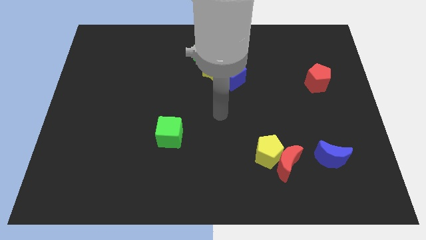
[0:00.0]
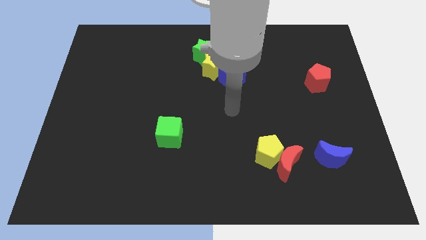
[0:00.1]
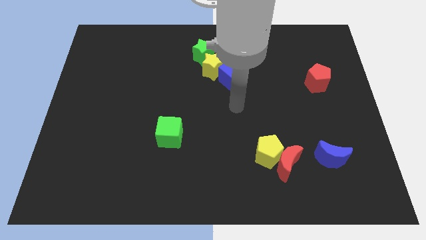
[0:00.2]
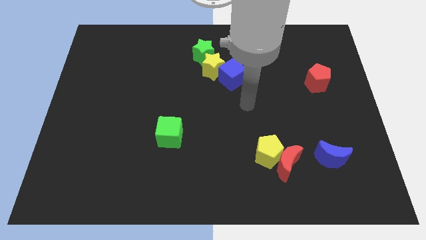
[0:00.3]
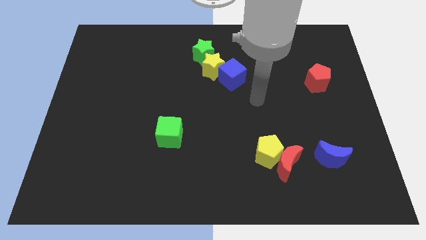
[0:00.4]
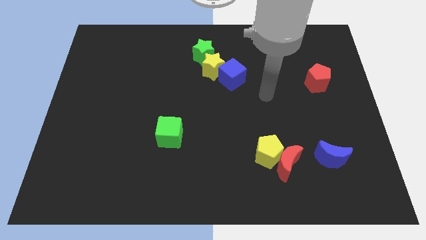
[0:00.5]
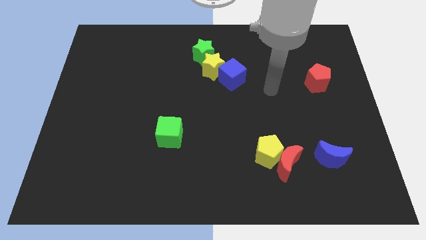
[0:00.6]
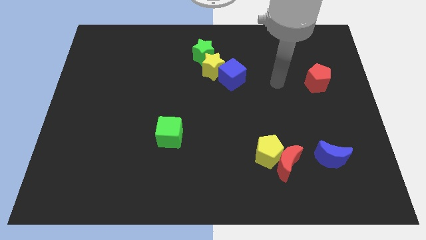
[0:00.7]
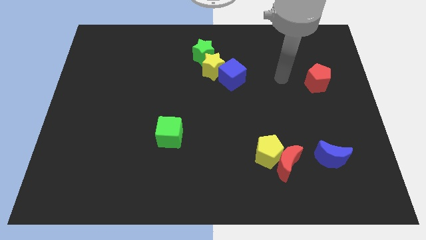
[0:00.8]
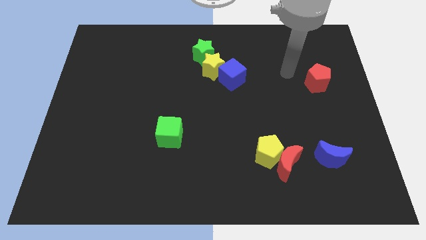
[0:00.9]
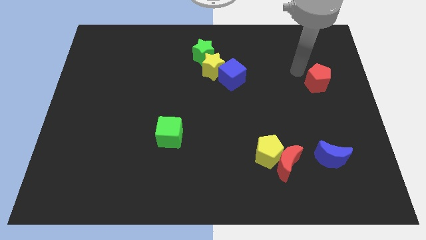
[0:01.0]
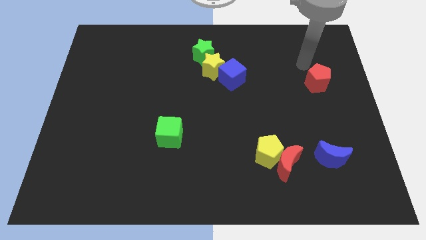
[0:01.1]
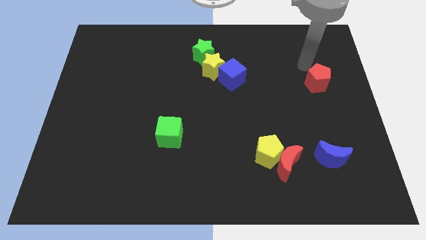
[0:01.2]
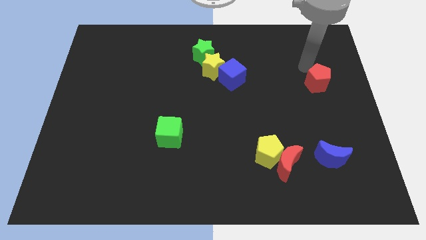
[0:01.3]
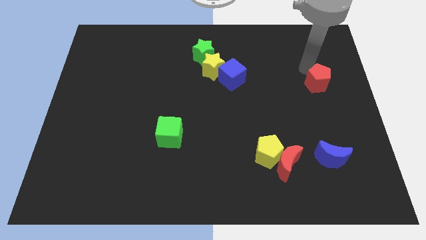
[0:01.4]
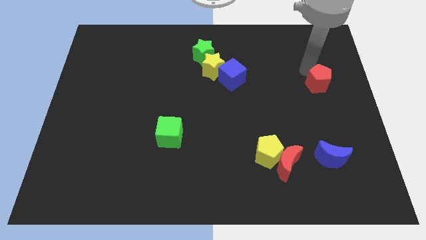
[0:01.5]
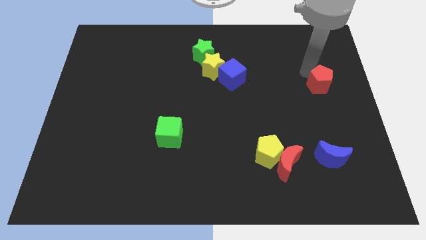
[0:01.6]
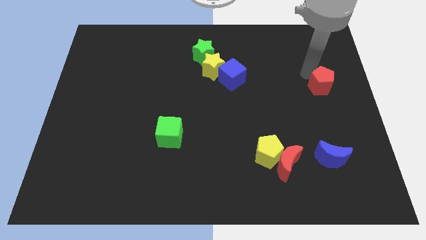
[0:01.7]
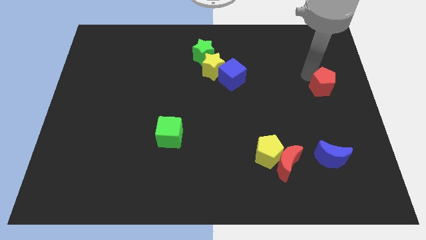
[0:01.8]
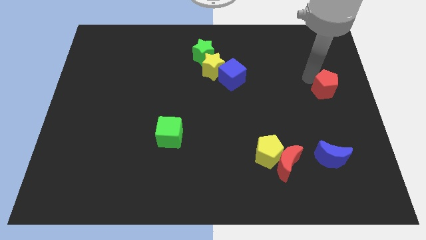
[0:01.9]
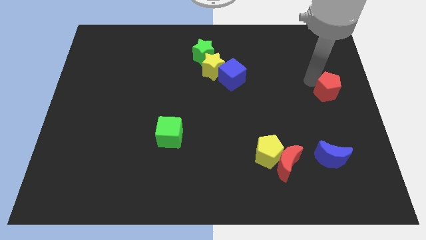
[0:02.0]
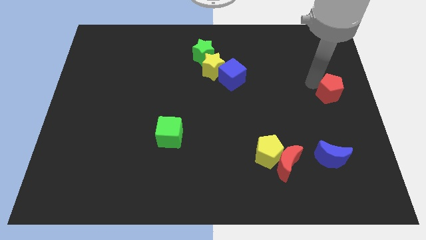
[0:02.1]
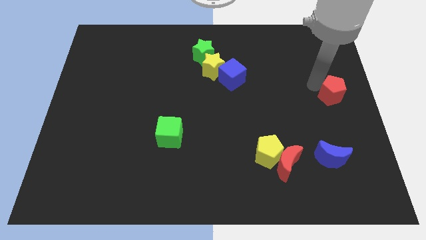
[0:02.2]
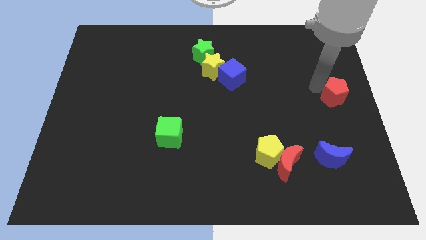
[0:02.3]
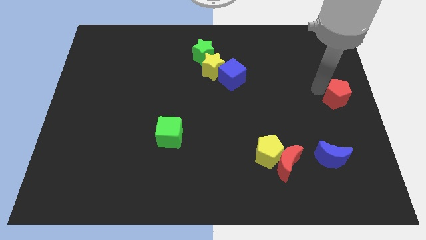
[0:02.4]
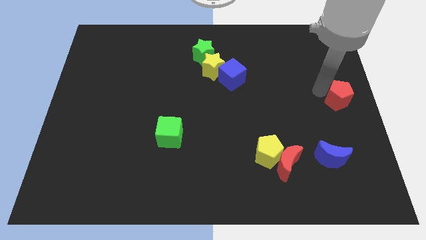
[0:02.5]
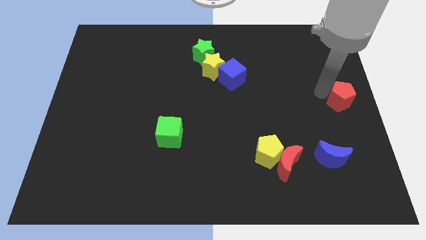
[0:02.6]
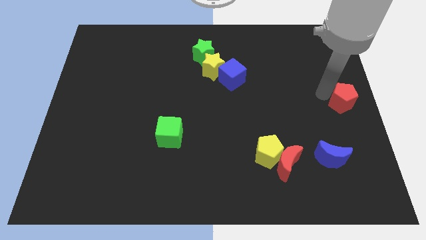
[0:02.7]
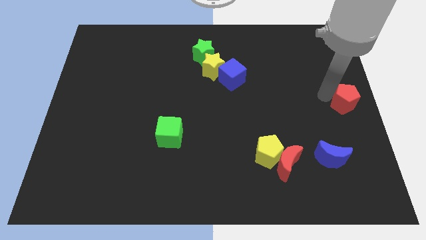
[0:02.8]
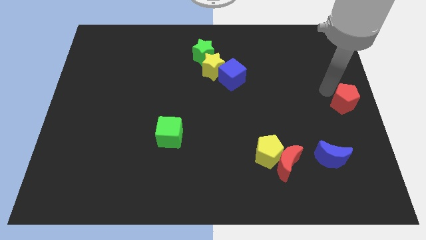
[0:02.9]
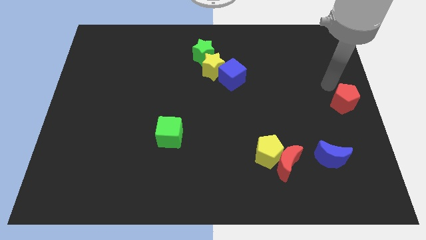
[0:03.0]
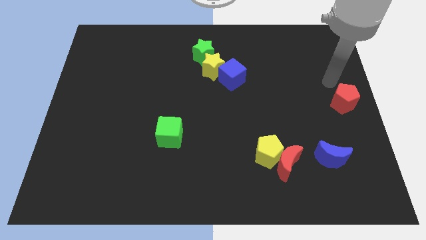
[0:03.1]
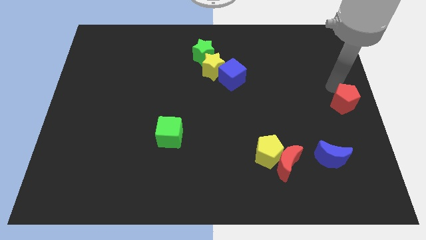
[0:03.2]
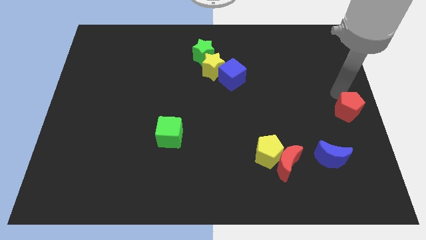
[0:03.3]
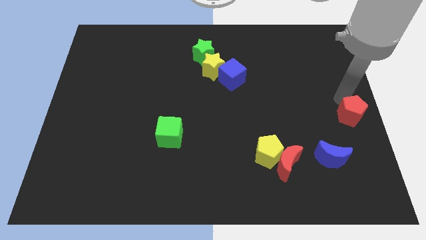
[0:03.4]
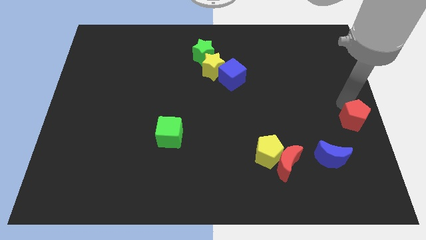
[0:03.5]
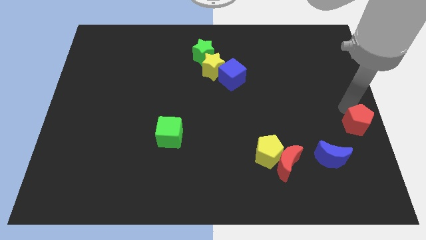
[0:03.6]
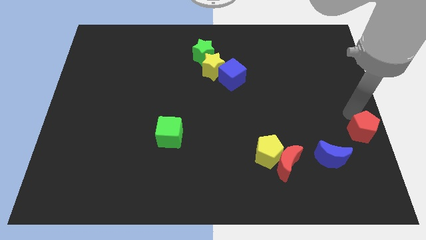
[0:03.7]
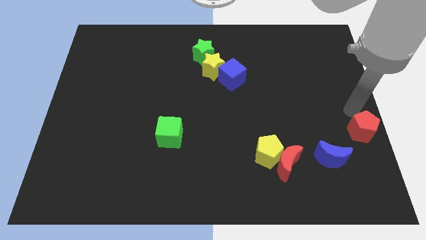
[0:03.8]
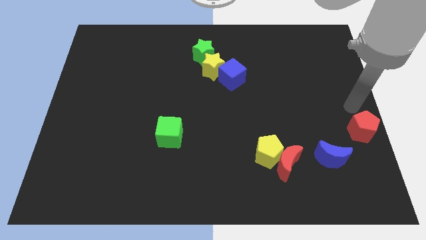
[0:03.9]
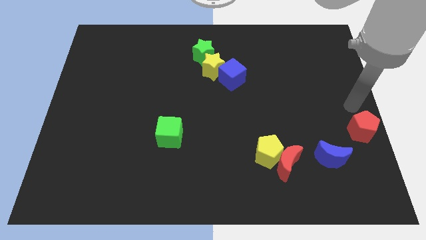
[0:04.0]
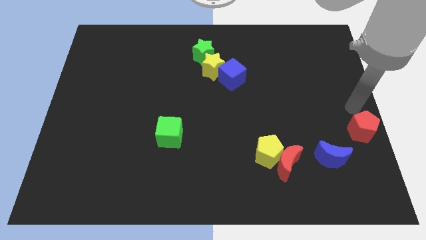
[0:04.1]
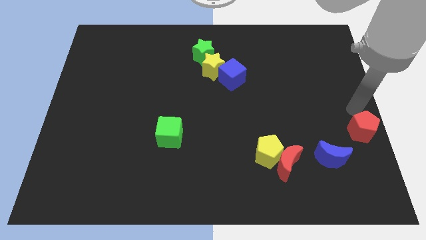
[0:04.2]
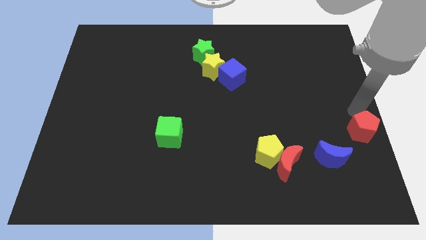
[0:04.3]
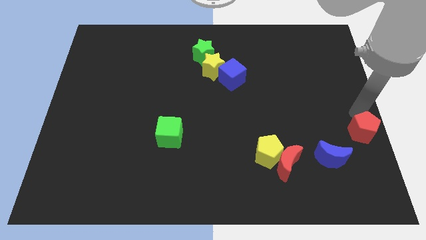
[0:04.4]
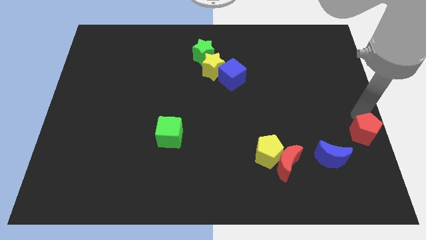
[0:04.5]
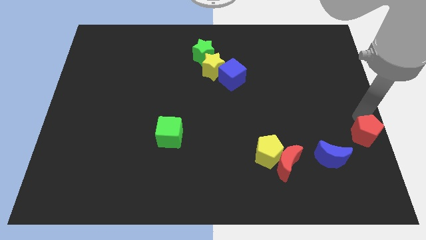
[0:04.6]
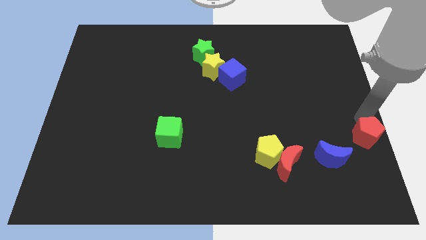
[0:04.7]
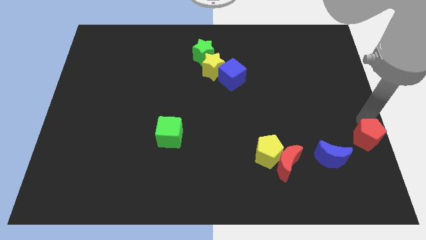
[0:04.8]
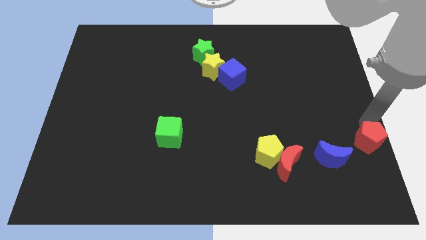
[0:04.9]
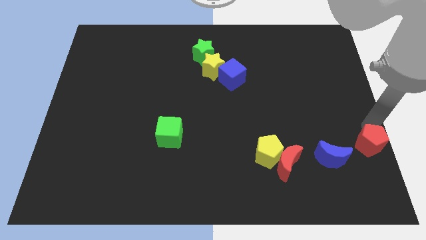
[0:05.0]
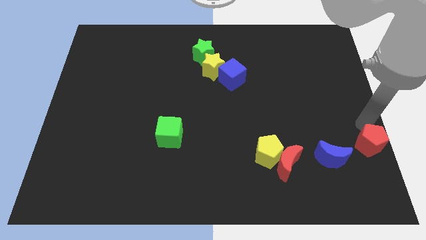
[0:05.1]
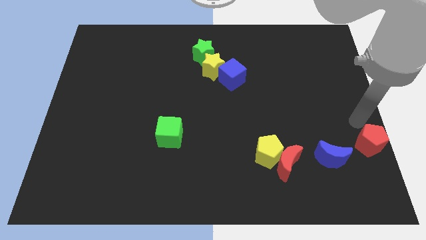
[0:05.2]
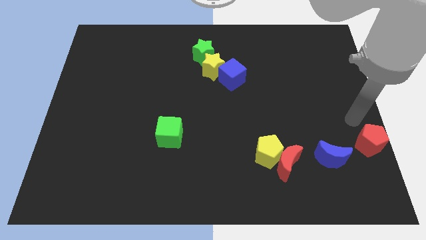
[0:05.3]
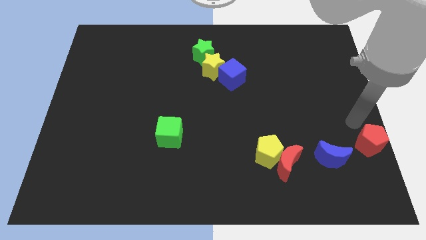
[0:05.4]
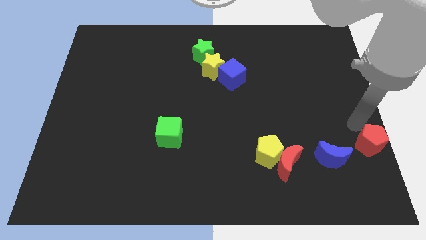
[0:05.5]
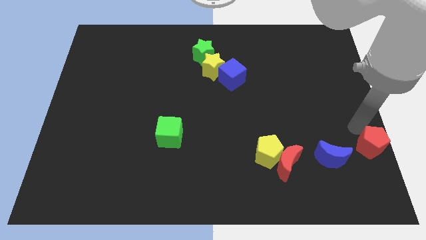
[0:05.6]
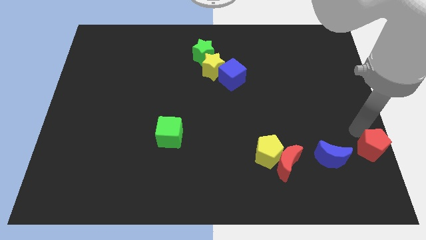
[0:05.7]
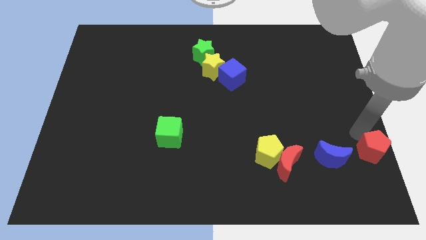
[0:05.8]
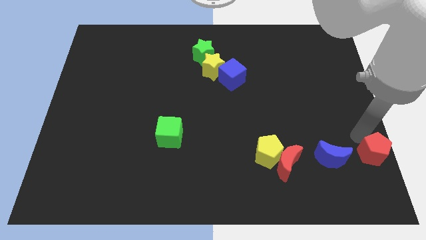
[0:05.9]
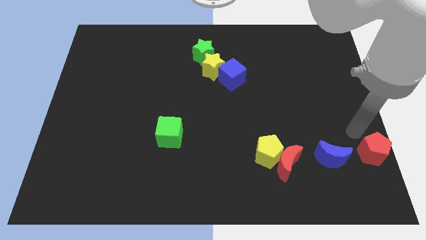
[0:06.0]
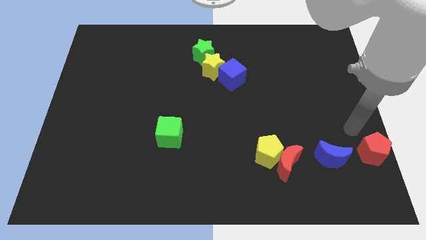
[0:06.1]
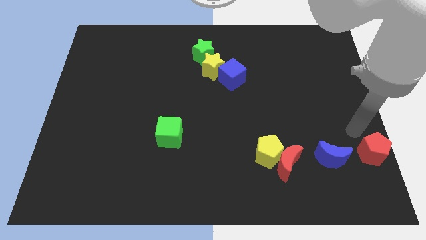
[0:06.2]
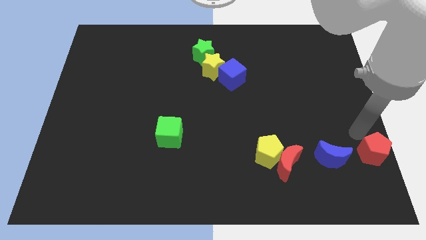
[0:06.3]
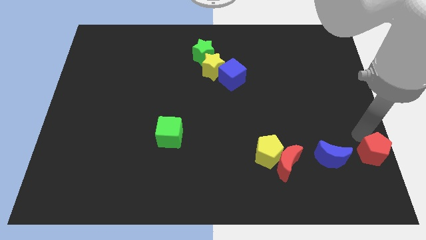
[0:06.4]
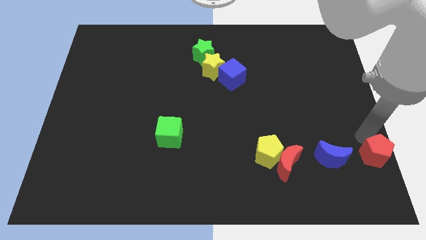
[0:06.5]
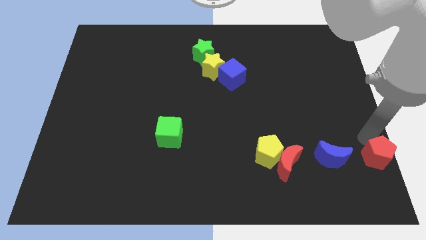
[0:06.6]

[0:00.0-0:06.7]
push the red pentagon to the bottom right

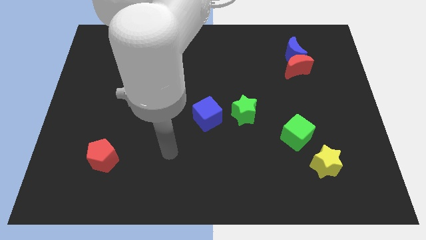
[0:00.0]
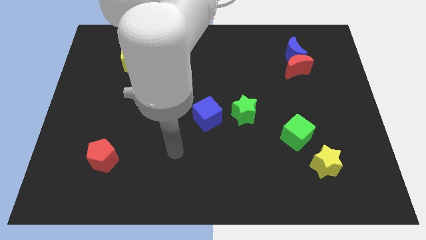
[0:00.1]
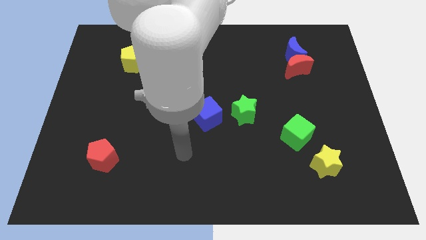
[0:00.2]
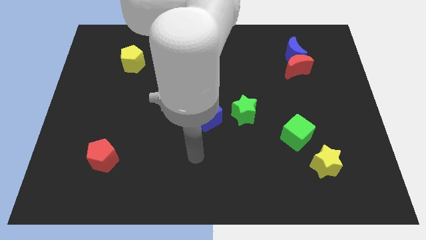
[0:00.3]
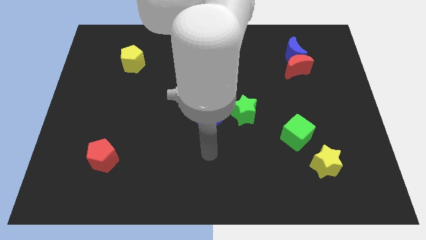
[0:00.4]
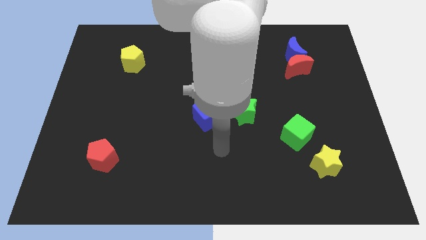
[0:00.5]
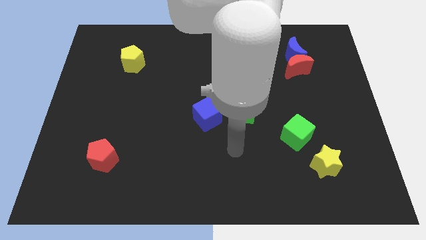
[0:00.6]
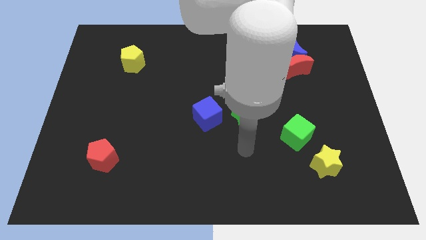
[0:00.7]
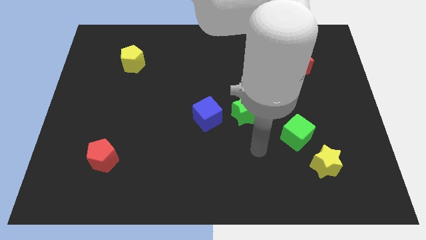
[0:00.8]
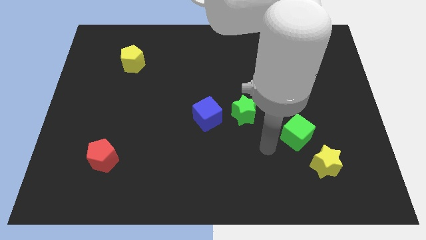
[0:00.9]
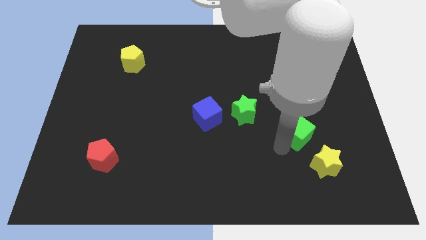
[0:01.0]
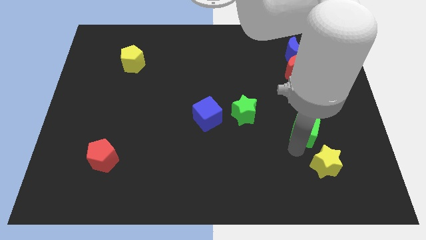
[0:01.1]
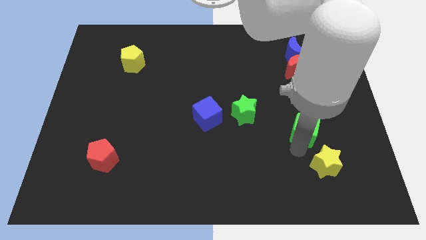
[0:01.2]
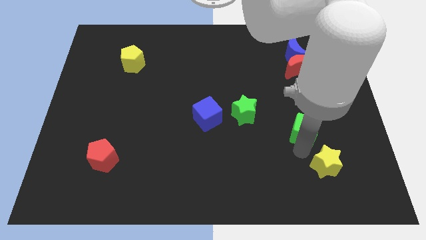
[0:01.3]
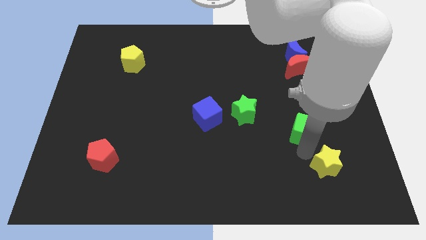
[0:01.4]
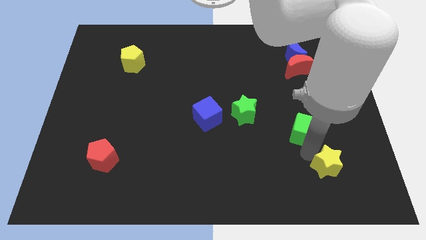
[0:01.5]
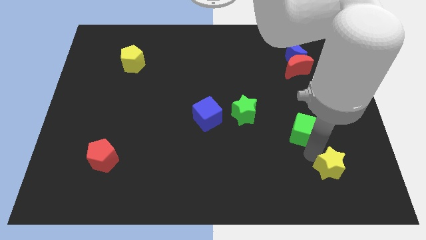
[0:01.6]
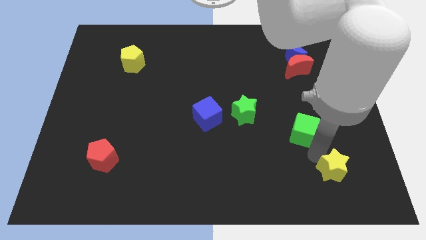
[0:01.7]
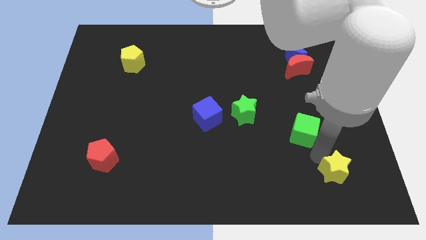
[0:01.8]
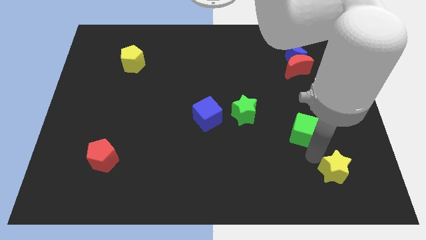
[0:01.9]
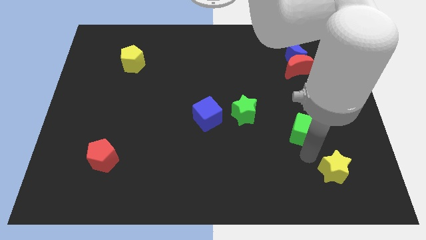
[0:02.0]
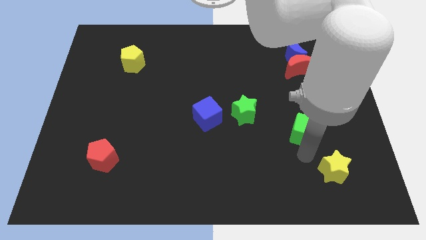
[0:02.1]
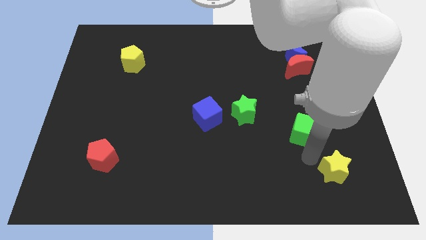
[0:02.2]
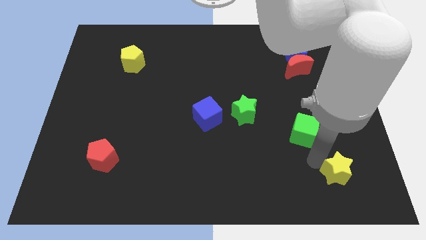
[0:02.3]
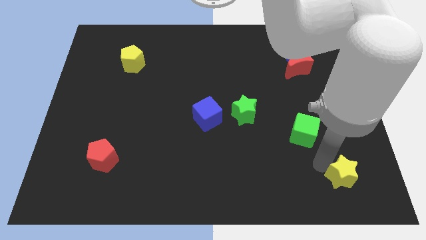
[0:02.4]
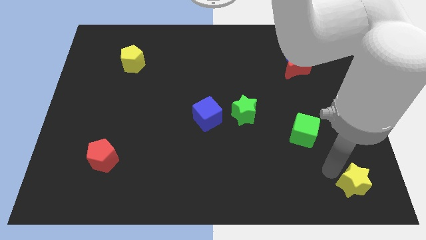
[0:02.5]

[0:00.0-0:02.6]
slide the yellow star to the lower right corner
